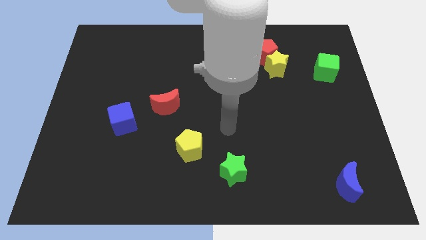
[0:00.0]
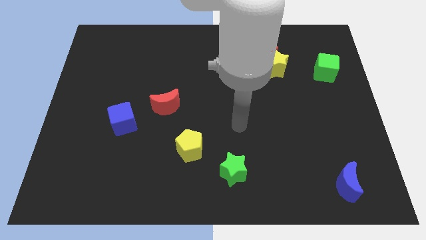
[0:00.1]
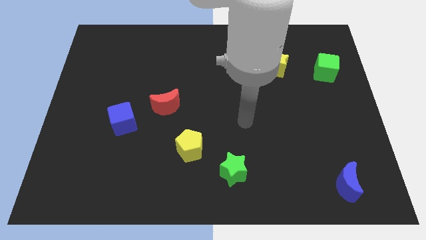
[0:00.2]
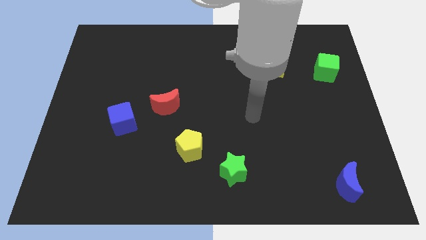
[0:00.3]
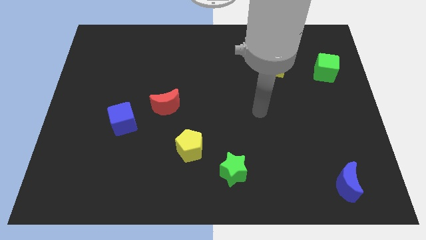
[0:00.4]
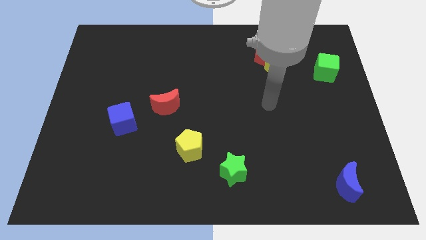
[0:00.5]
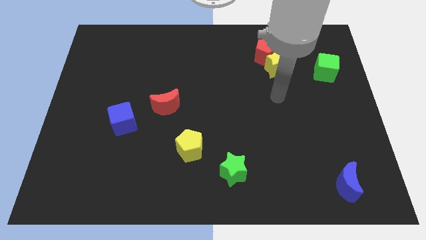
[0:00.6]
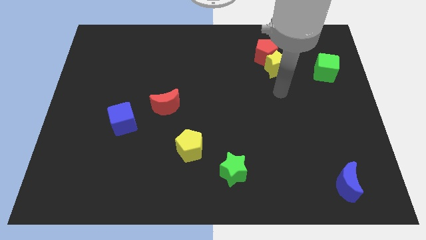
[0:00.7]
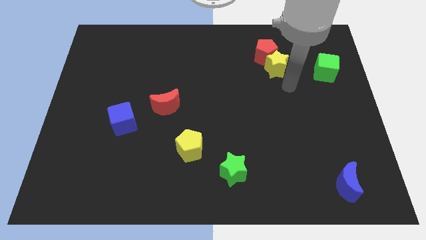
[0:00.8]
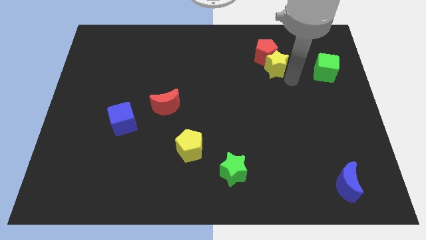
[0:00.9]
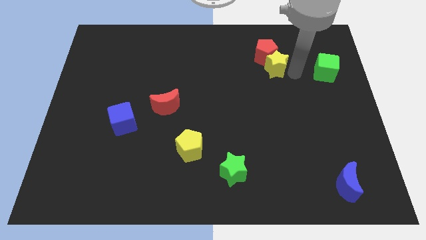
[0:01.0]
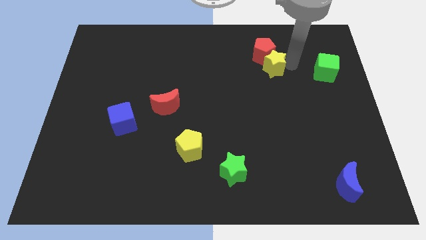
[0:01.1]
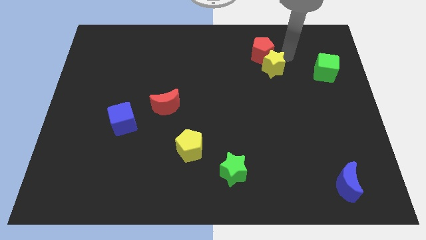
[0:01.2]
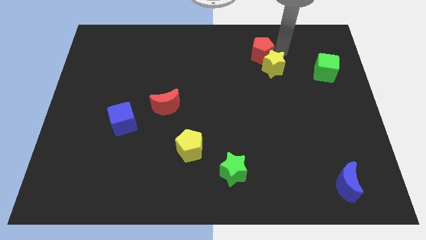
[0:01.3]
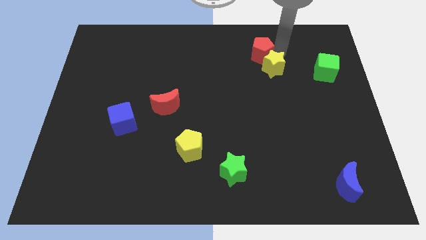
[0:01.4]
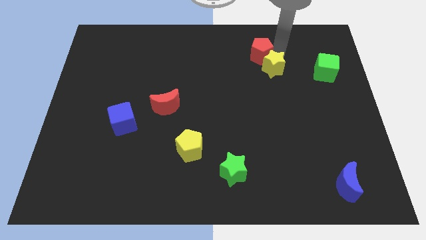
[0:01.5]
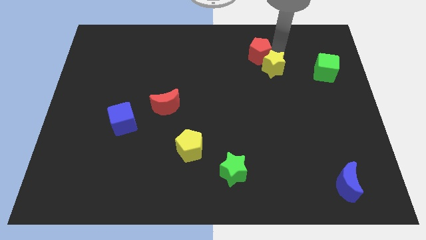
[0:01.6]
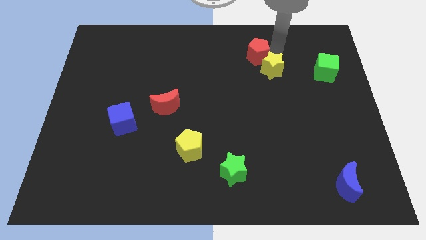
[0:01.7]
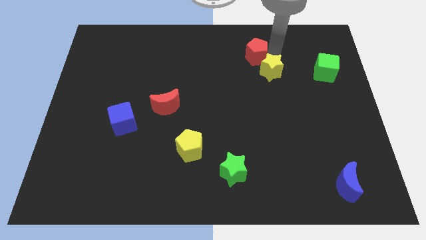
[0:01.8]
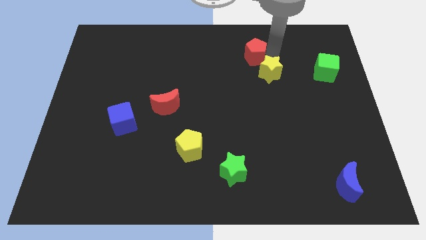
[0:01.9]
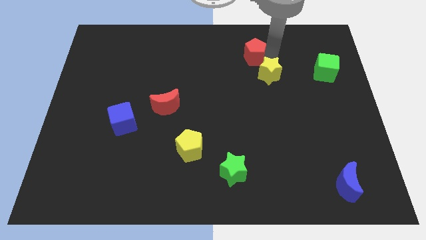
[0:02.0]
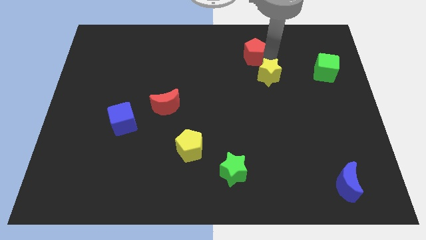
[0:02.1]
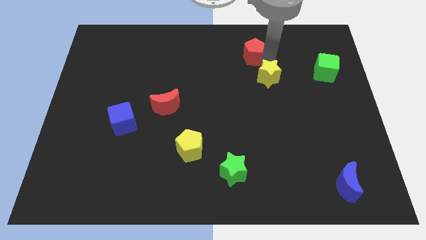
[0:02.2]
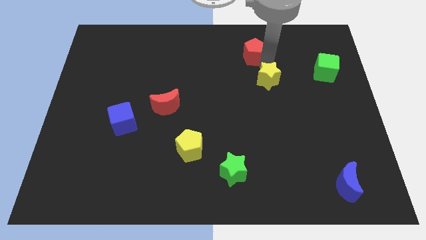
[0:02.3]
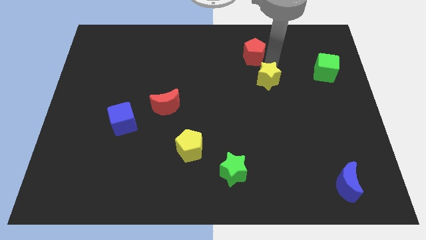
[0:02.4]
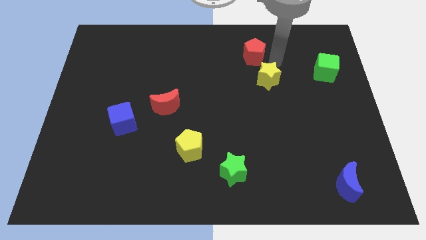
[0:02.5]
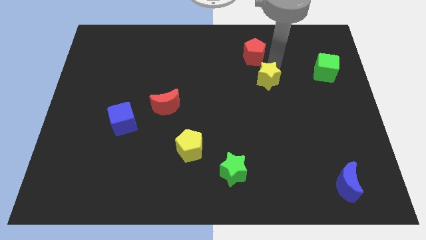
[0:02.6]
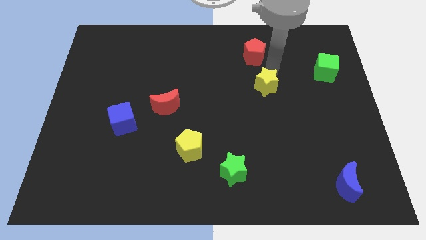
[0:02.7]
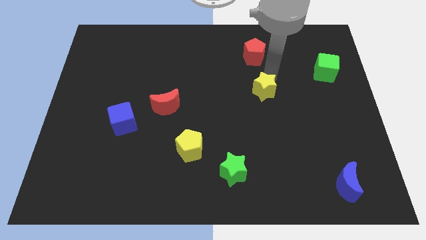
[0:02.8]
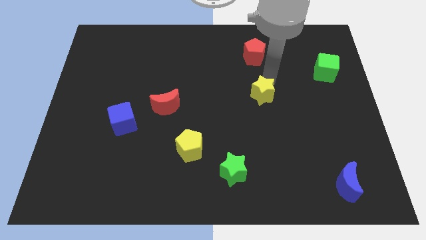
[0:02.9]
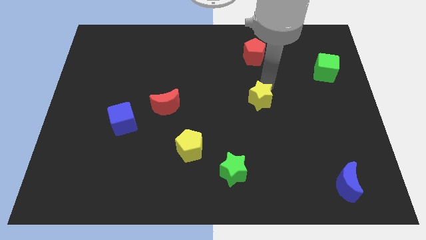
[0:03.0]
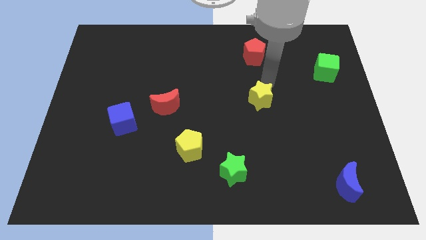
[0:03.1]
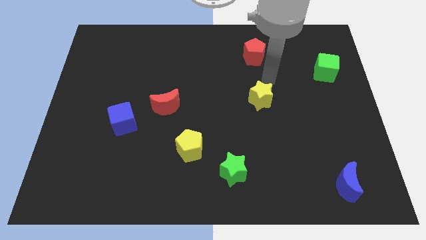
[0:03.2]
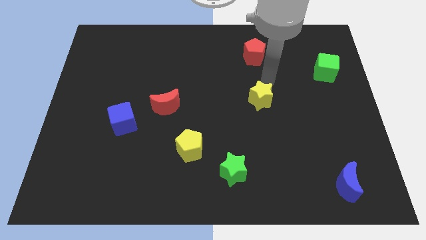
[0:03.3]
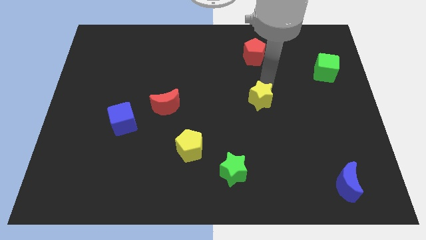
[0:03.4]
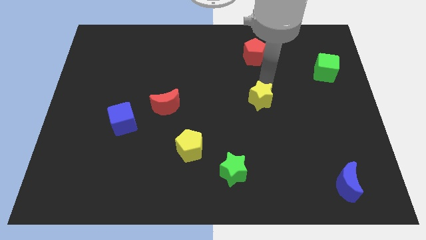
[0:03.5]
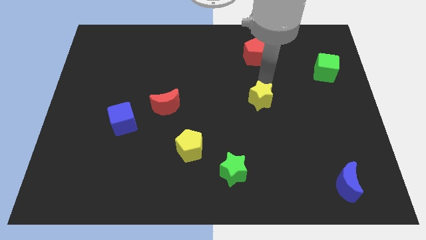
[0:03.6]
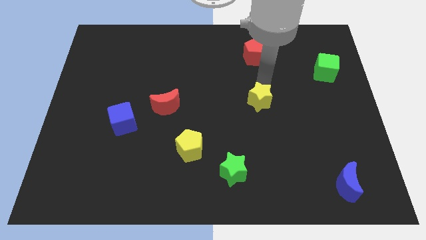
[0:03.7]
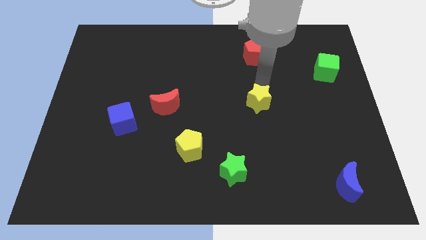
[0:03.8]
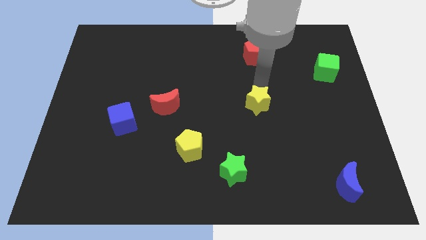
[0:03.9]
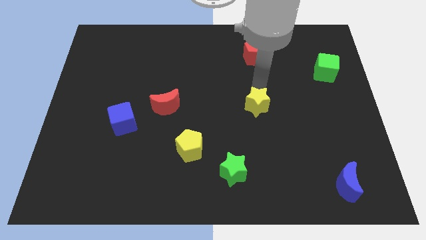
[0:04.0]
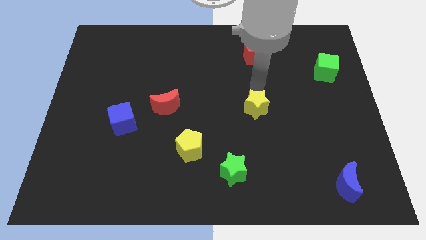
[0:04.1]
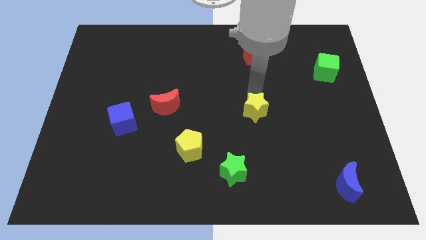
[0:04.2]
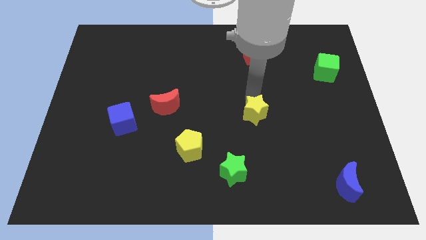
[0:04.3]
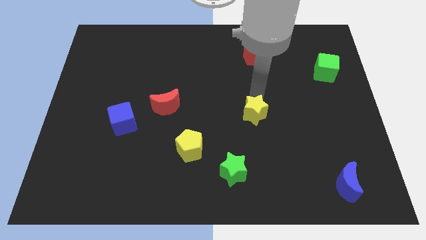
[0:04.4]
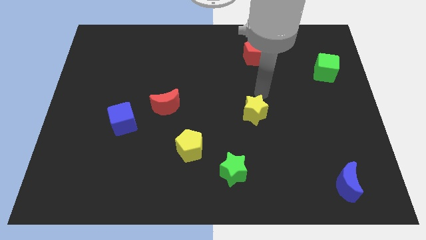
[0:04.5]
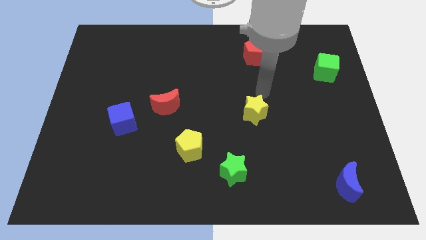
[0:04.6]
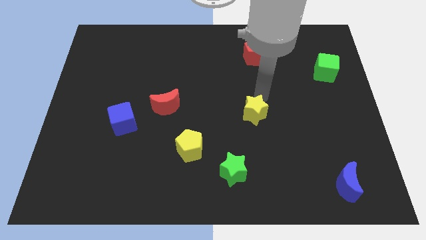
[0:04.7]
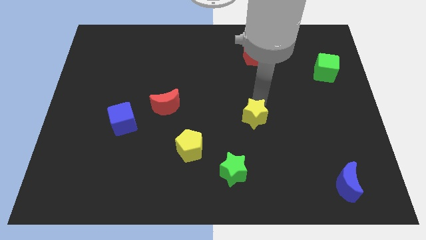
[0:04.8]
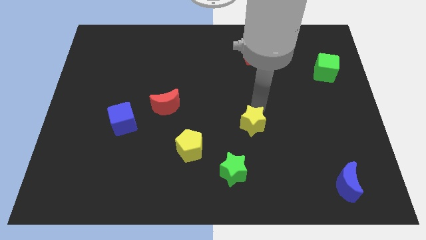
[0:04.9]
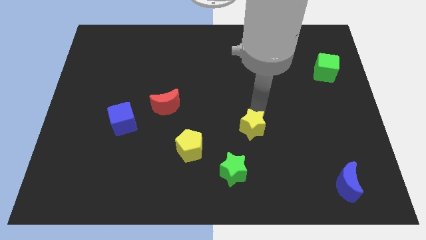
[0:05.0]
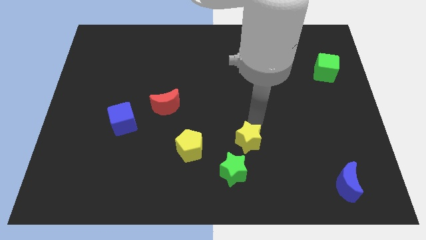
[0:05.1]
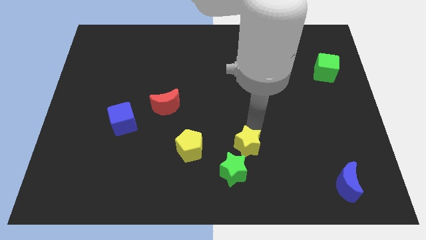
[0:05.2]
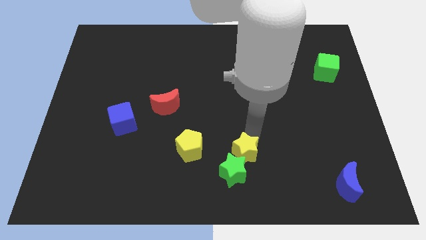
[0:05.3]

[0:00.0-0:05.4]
slide the yellow star to the green star

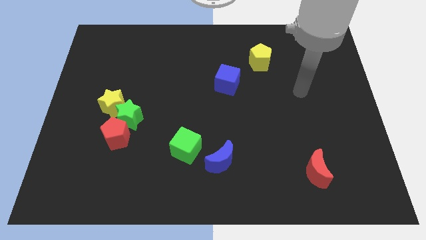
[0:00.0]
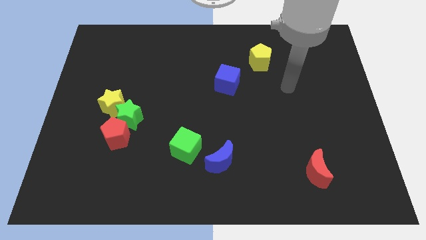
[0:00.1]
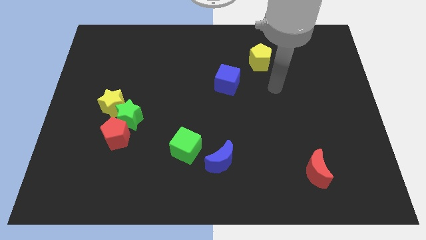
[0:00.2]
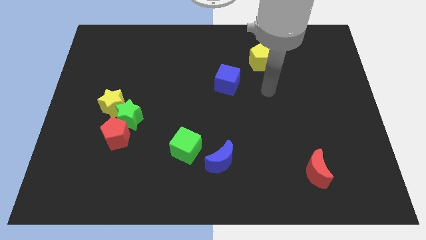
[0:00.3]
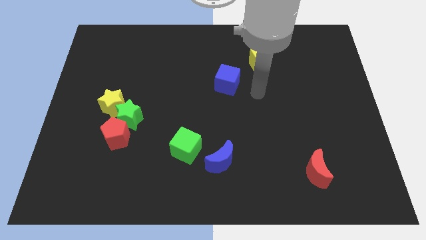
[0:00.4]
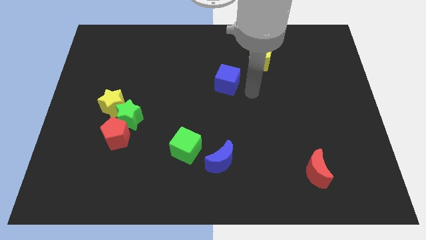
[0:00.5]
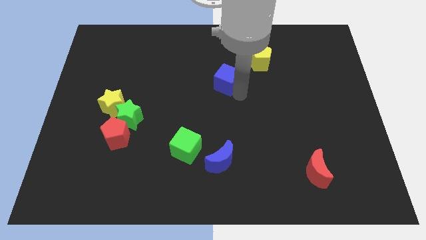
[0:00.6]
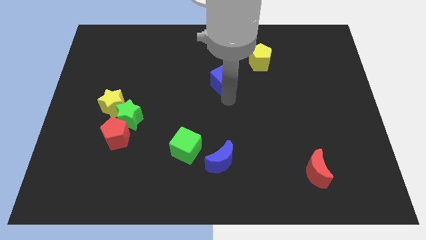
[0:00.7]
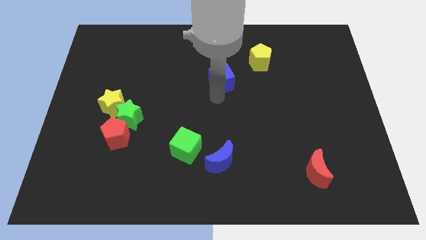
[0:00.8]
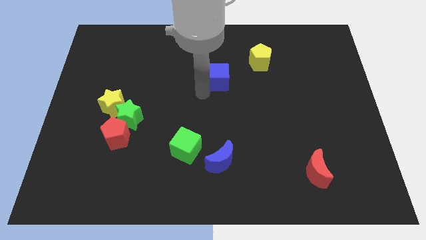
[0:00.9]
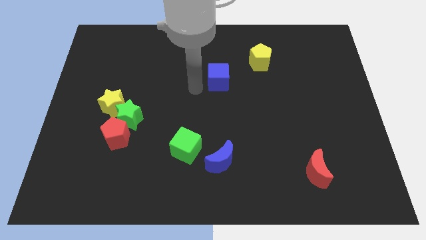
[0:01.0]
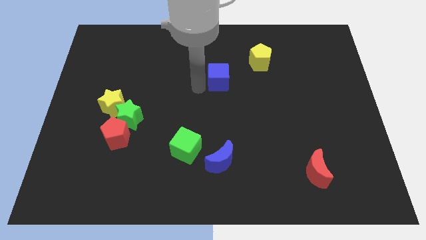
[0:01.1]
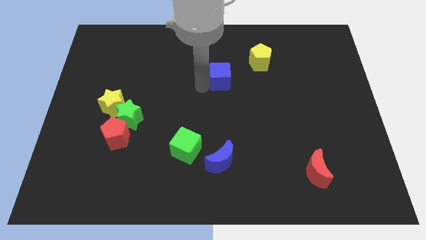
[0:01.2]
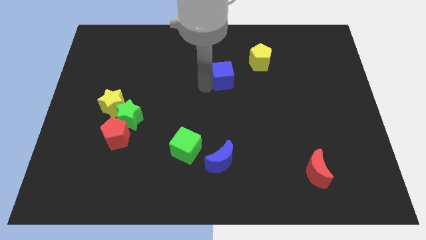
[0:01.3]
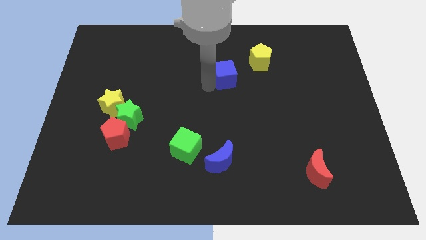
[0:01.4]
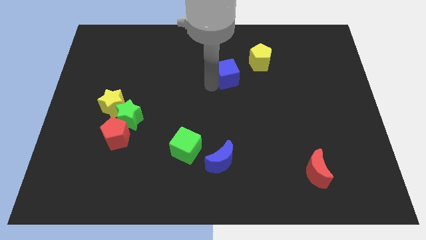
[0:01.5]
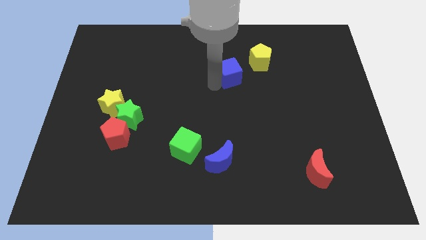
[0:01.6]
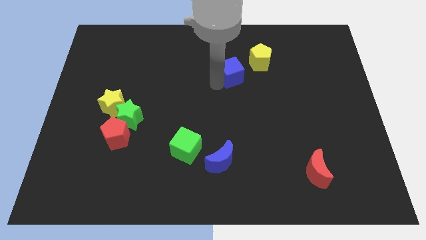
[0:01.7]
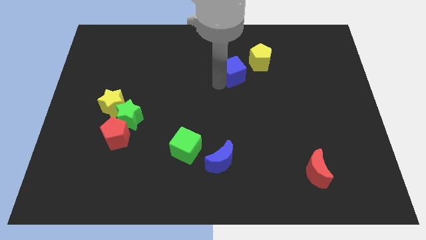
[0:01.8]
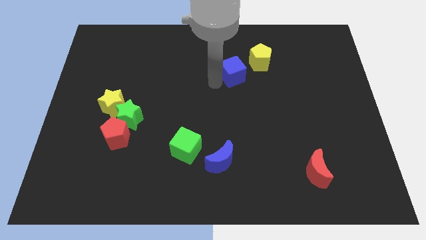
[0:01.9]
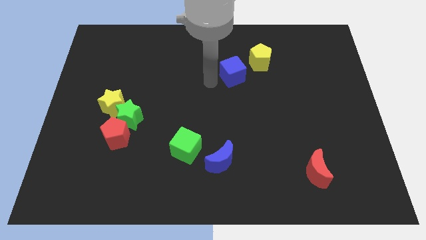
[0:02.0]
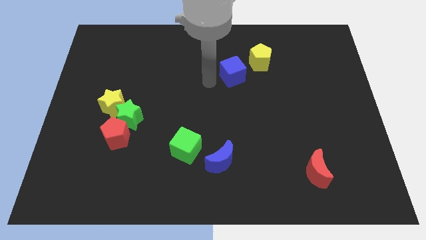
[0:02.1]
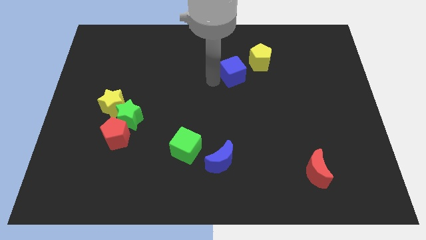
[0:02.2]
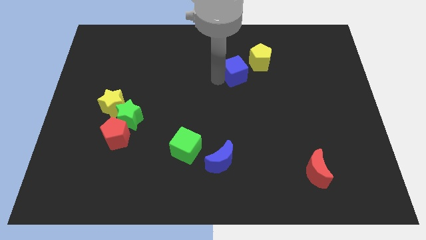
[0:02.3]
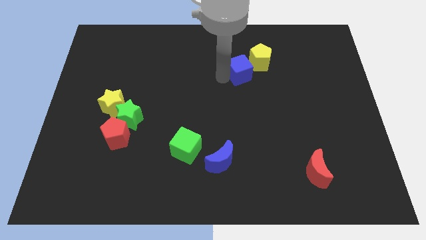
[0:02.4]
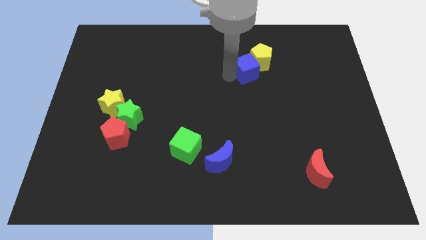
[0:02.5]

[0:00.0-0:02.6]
move the blue cube next to the yellow pentagon
